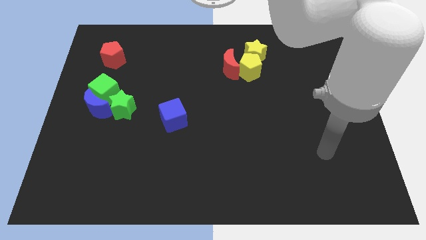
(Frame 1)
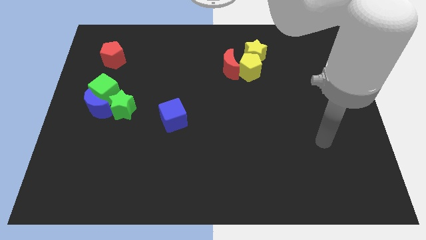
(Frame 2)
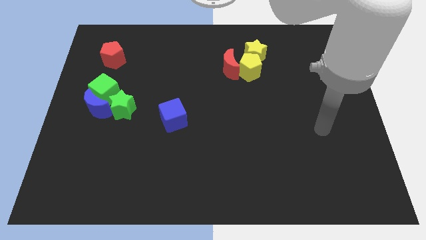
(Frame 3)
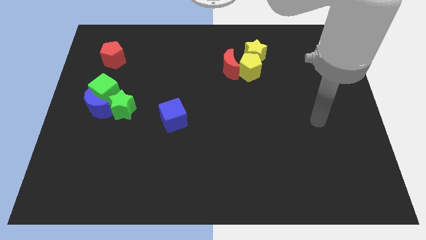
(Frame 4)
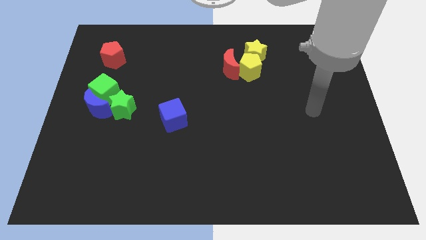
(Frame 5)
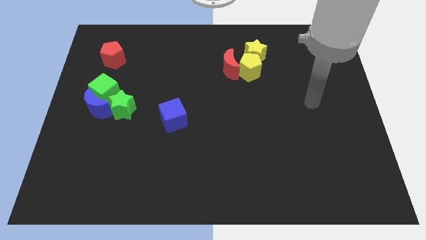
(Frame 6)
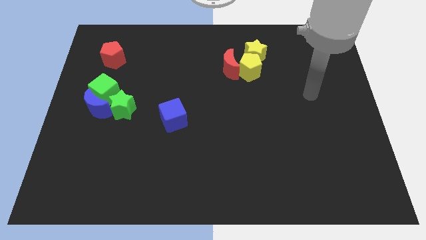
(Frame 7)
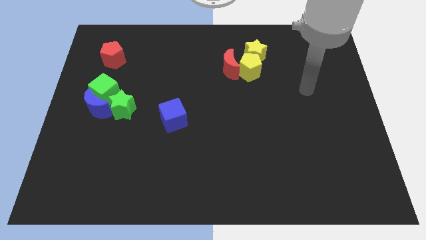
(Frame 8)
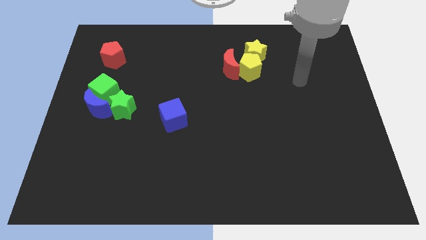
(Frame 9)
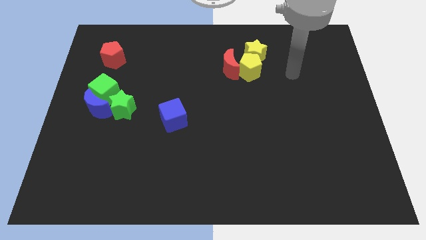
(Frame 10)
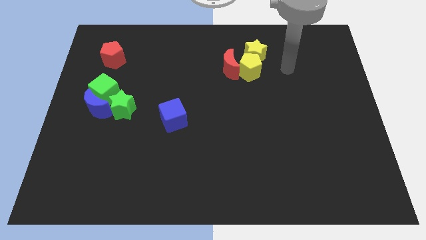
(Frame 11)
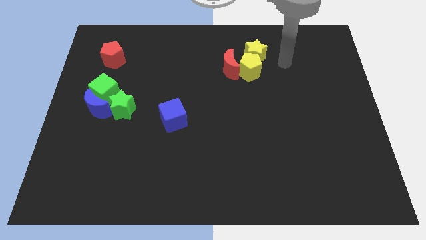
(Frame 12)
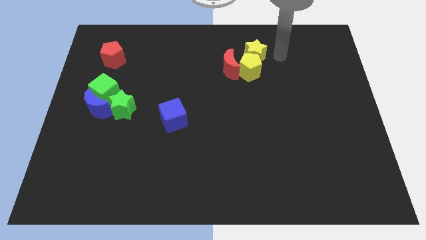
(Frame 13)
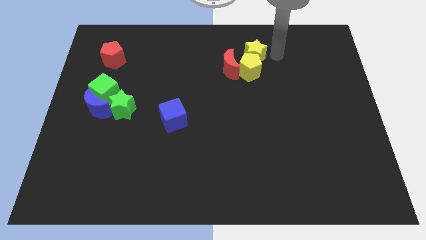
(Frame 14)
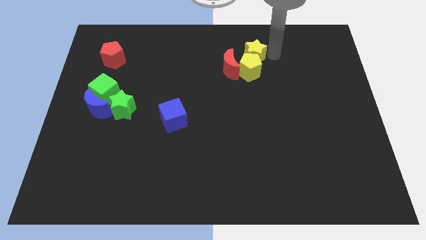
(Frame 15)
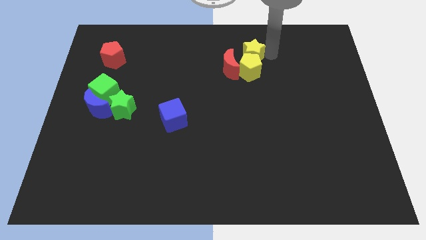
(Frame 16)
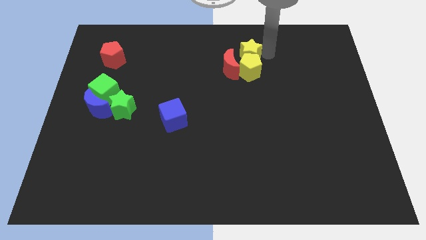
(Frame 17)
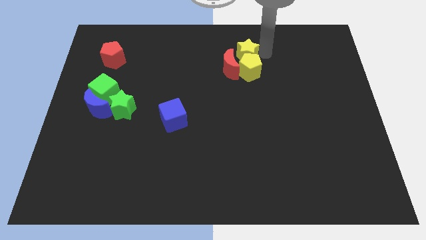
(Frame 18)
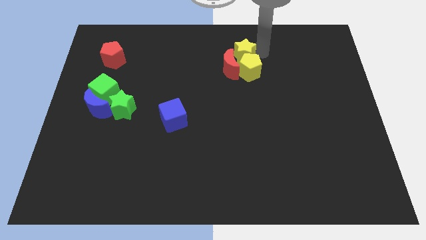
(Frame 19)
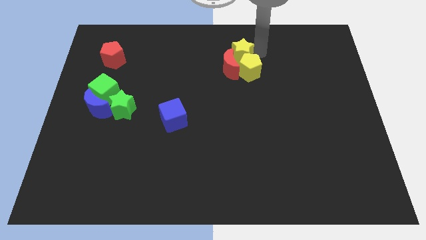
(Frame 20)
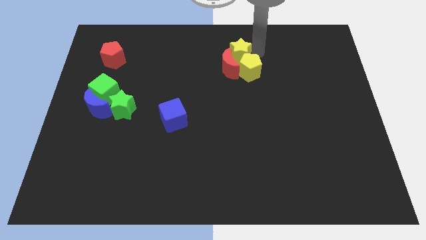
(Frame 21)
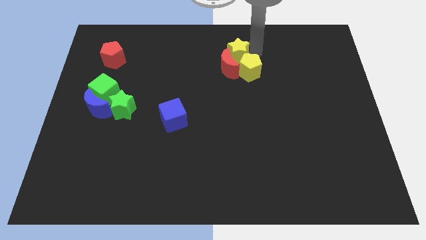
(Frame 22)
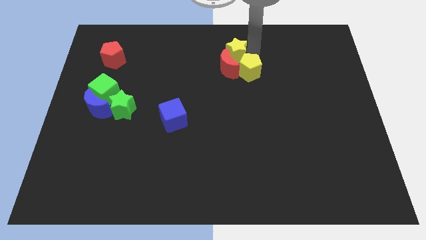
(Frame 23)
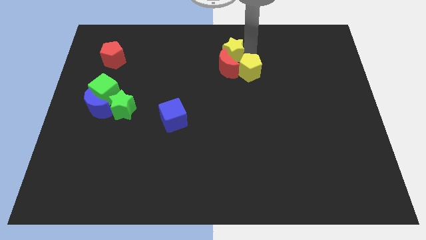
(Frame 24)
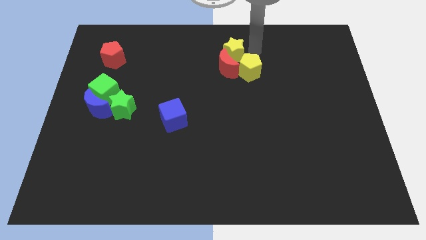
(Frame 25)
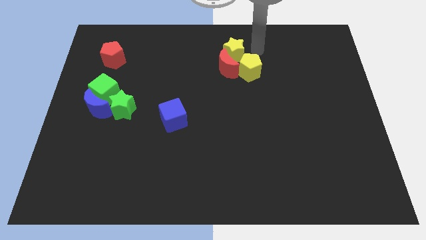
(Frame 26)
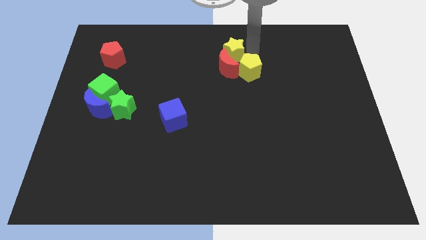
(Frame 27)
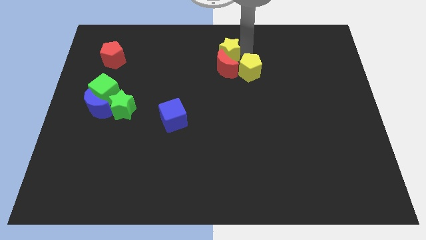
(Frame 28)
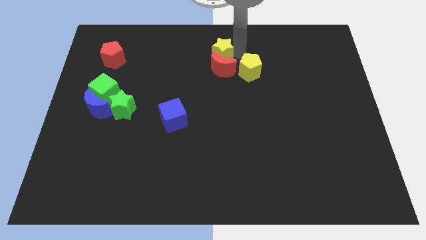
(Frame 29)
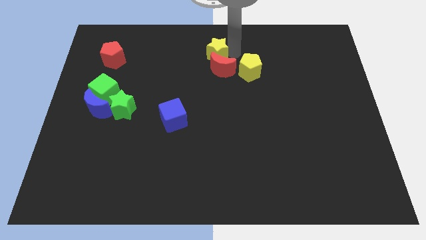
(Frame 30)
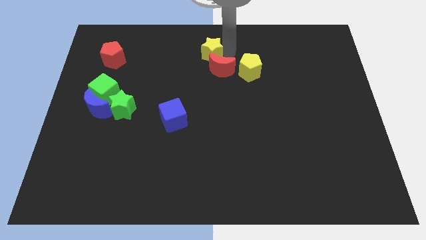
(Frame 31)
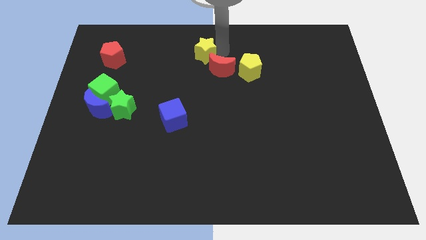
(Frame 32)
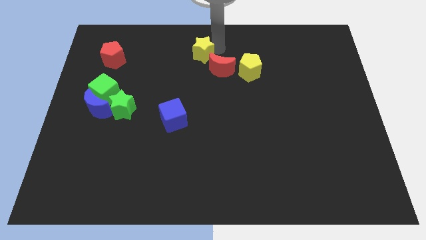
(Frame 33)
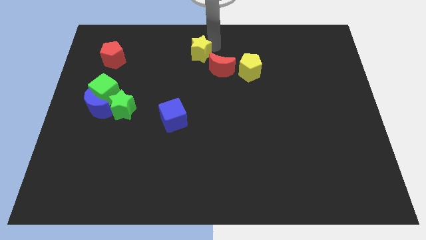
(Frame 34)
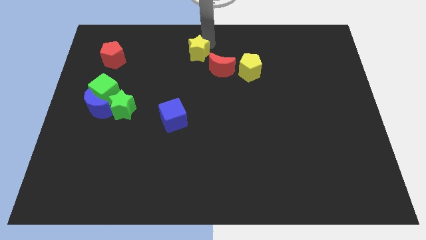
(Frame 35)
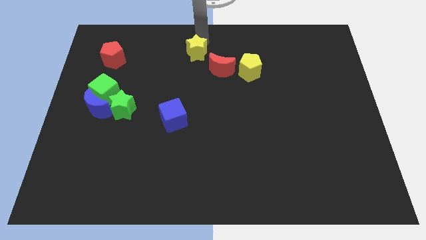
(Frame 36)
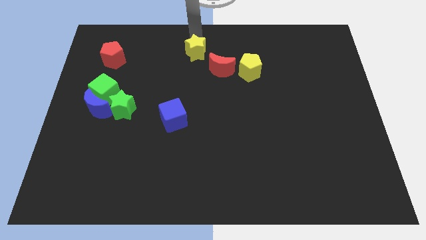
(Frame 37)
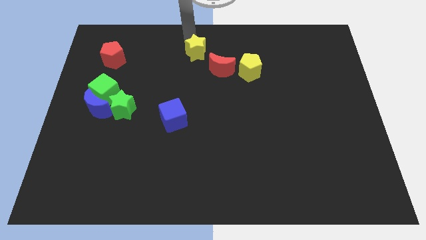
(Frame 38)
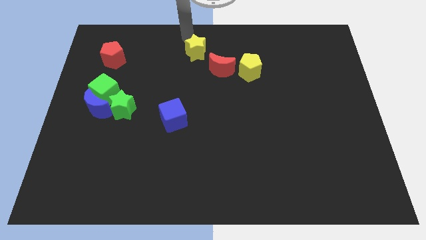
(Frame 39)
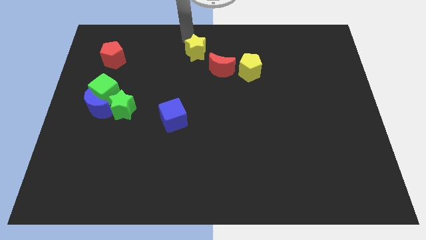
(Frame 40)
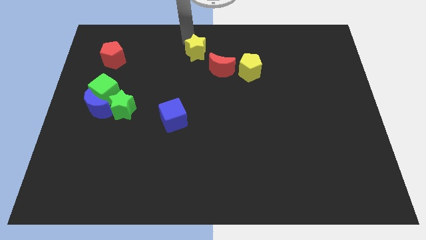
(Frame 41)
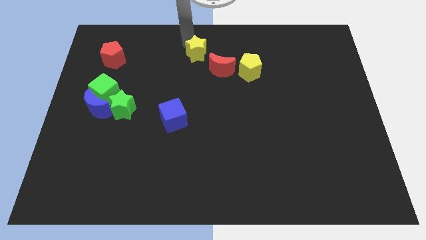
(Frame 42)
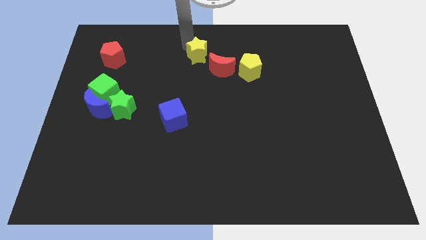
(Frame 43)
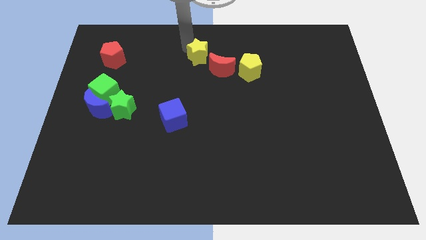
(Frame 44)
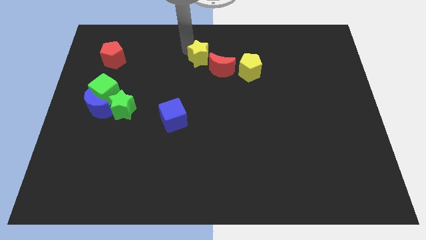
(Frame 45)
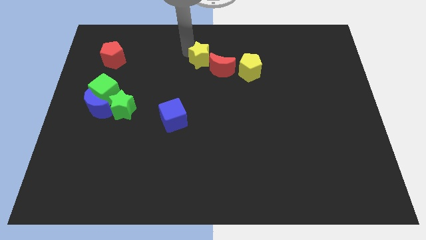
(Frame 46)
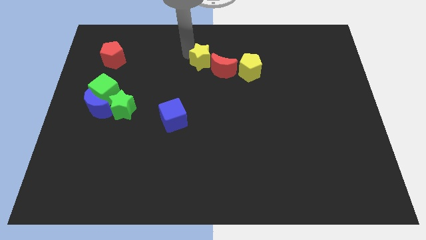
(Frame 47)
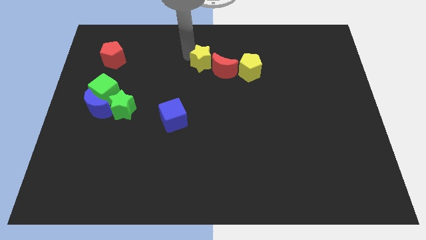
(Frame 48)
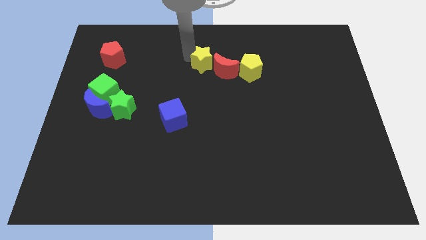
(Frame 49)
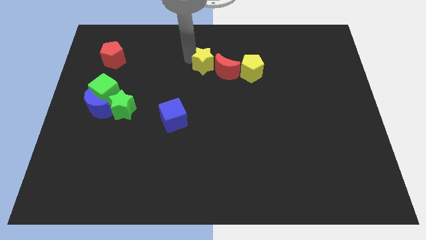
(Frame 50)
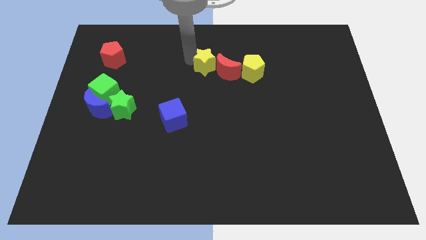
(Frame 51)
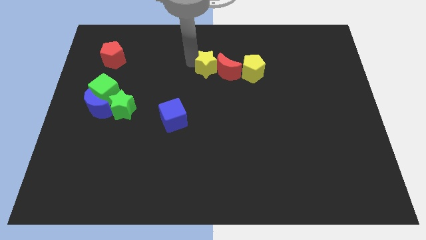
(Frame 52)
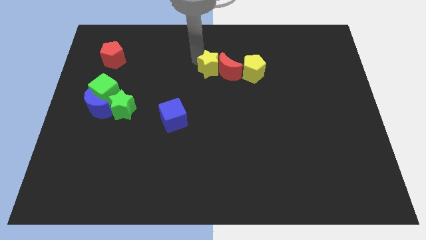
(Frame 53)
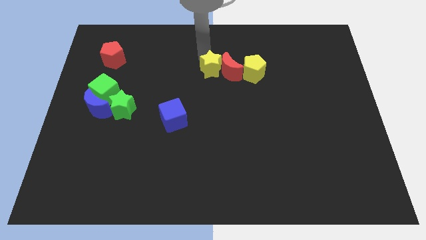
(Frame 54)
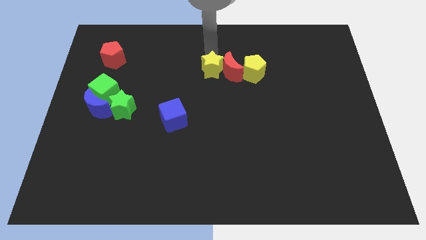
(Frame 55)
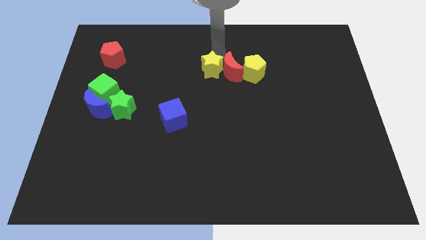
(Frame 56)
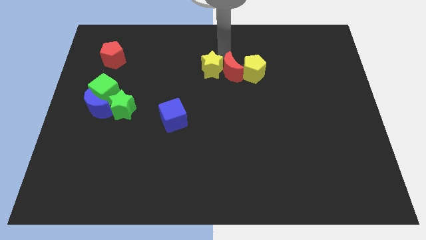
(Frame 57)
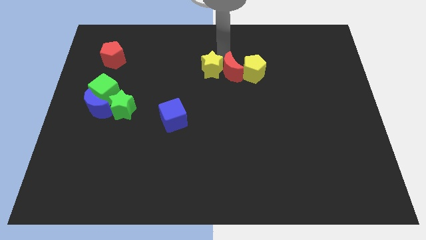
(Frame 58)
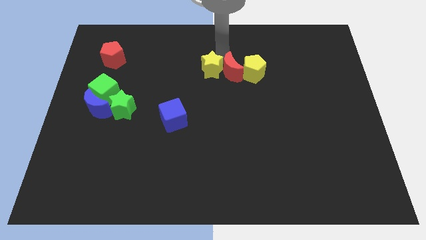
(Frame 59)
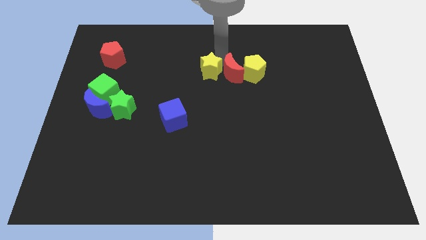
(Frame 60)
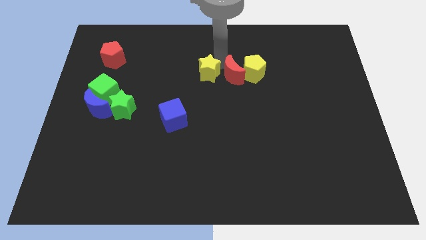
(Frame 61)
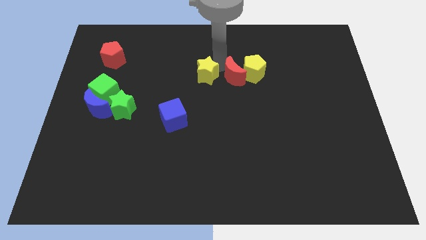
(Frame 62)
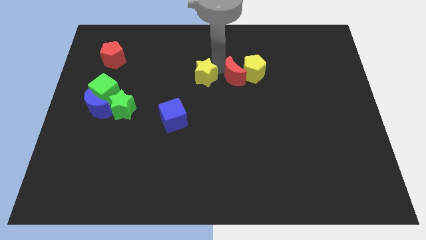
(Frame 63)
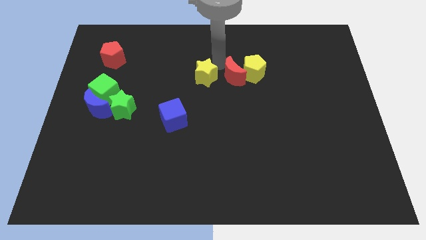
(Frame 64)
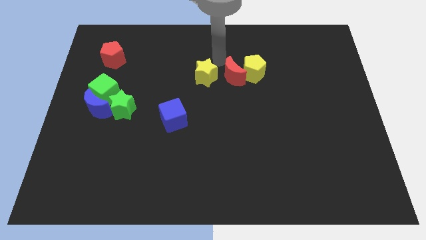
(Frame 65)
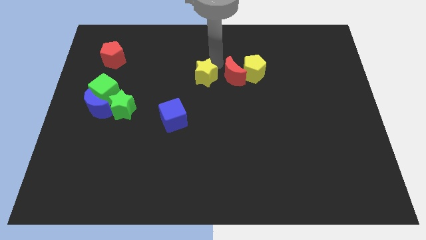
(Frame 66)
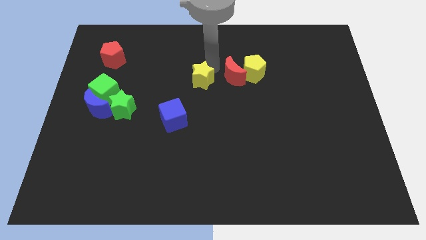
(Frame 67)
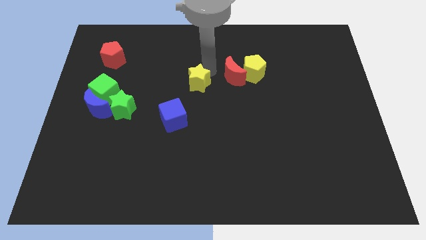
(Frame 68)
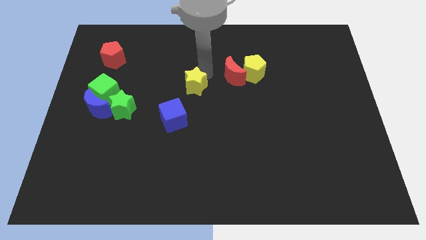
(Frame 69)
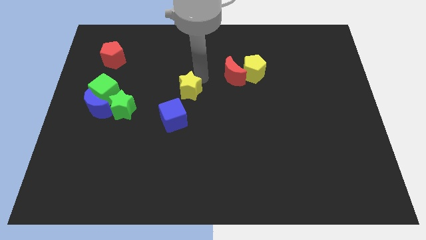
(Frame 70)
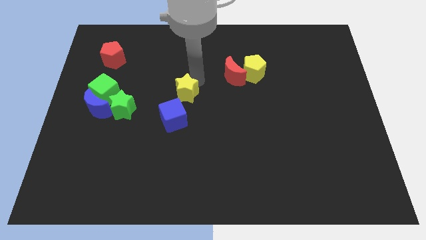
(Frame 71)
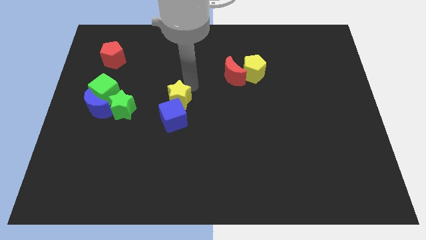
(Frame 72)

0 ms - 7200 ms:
push the yellow star towards the blue cube
